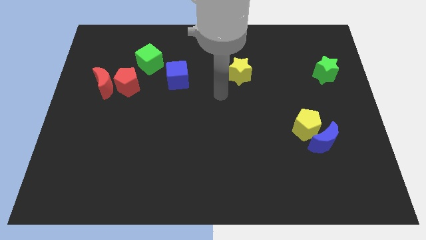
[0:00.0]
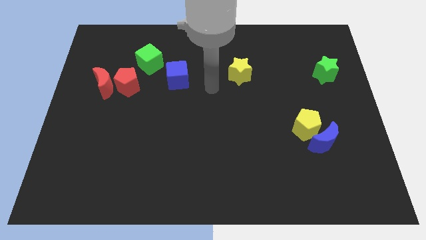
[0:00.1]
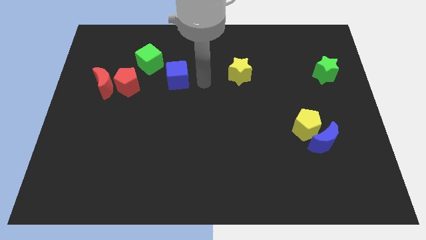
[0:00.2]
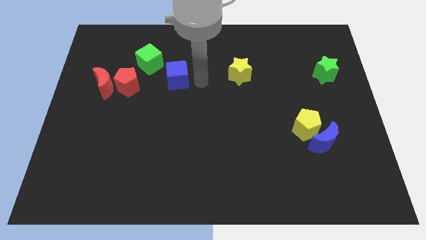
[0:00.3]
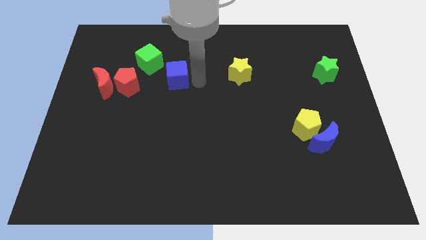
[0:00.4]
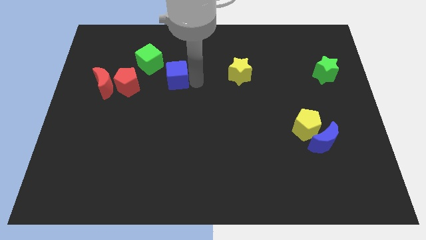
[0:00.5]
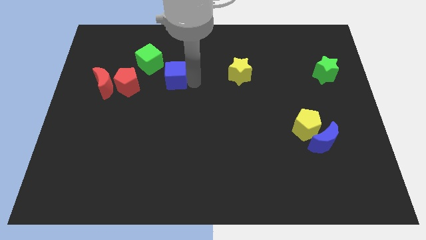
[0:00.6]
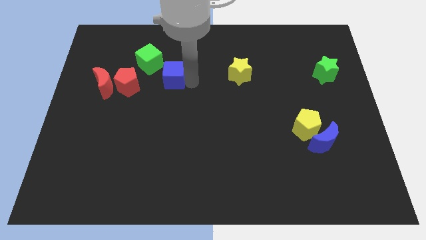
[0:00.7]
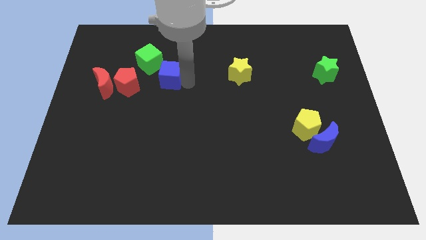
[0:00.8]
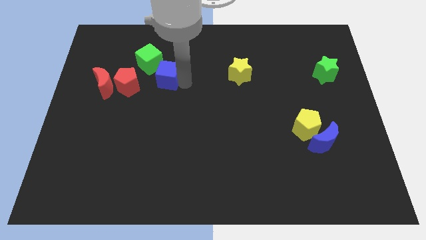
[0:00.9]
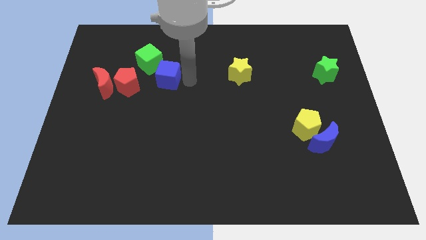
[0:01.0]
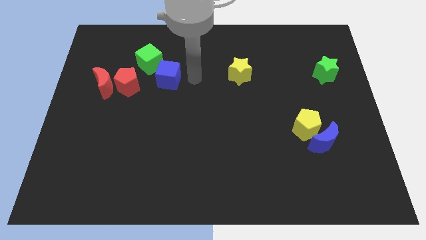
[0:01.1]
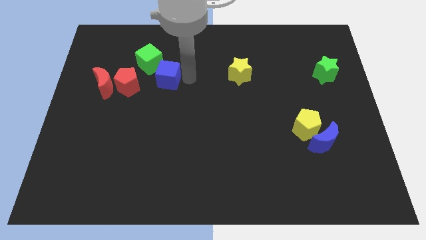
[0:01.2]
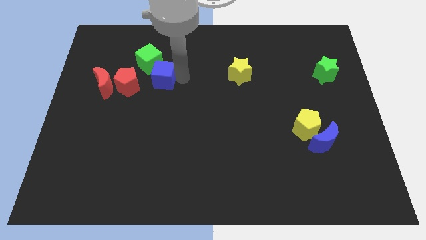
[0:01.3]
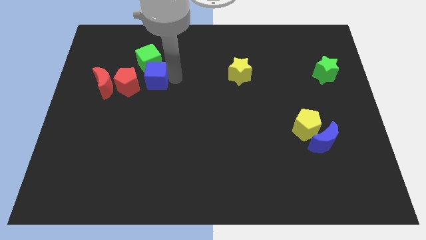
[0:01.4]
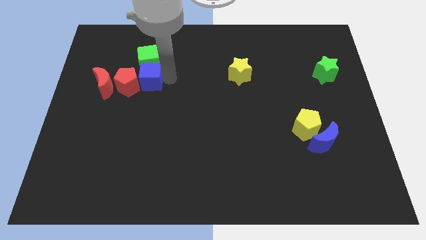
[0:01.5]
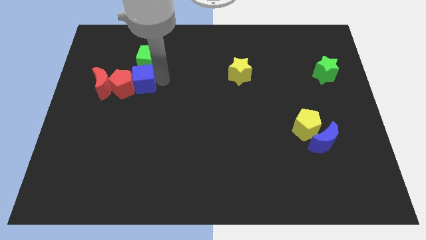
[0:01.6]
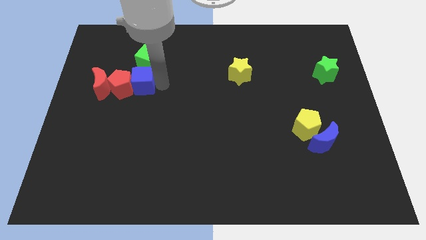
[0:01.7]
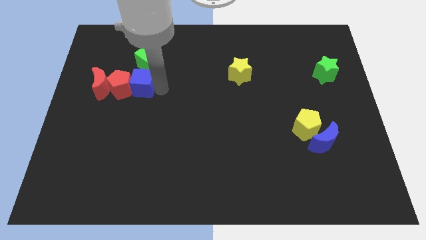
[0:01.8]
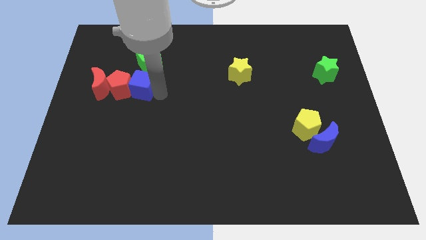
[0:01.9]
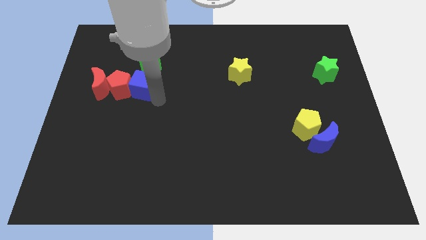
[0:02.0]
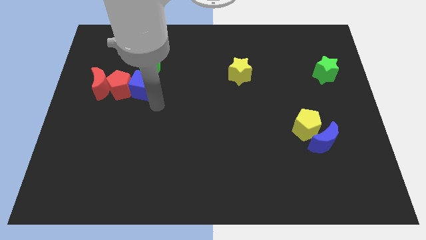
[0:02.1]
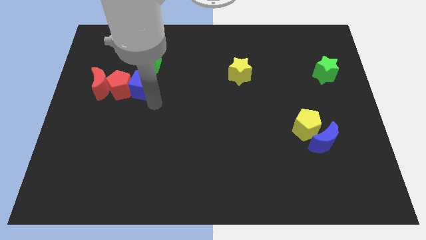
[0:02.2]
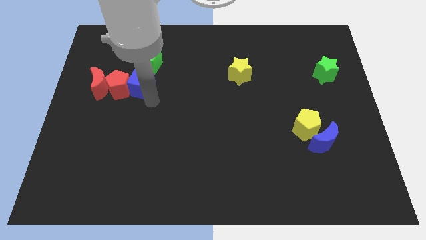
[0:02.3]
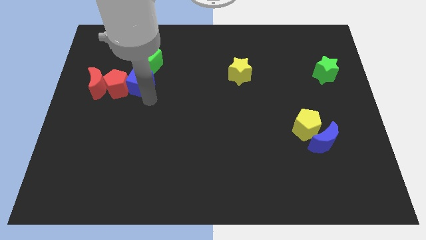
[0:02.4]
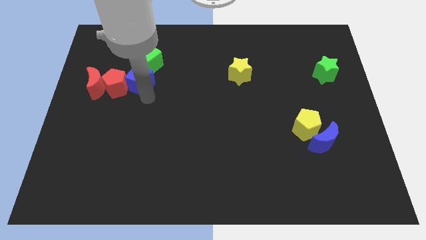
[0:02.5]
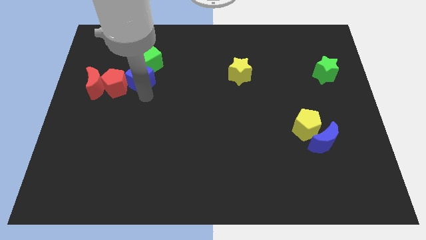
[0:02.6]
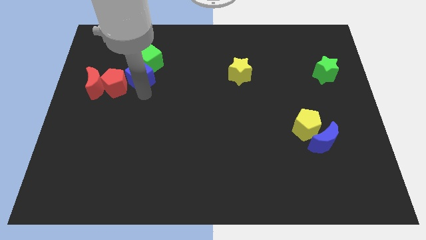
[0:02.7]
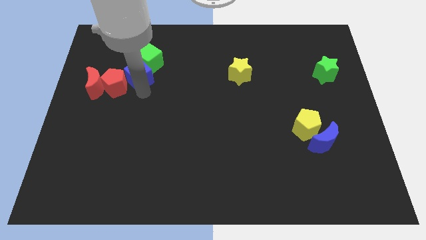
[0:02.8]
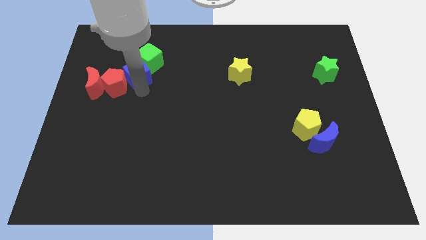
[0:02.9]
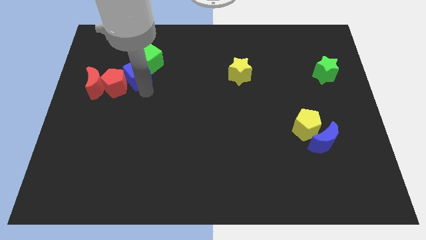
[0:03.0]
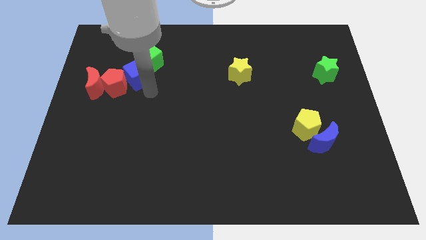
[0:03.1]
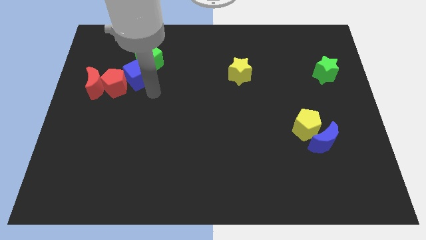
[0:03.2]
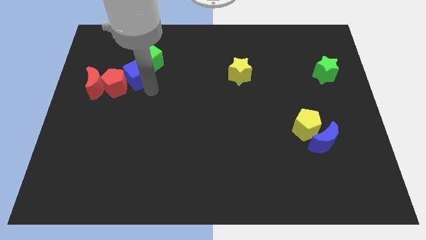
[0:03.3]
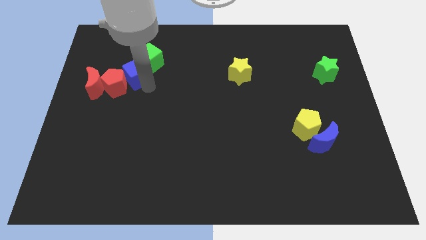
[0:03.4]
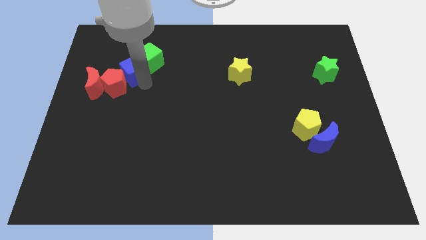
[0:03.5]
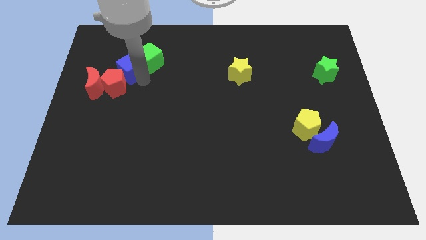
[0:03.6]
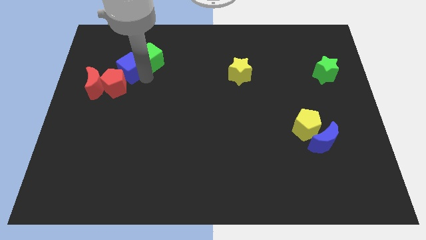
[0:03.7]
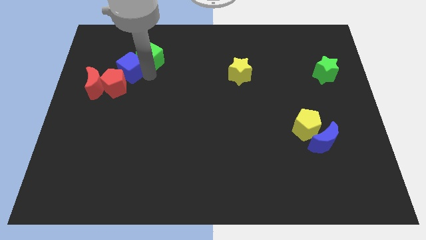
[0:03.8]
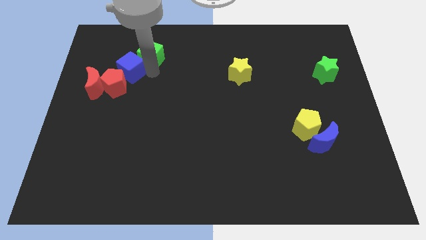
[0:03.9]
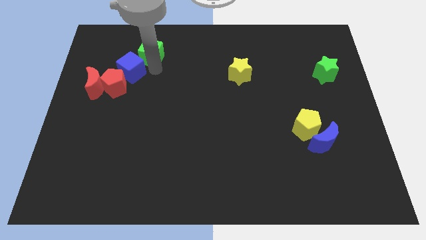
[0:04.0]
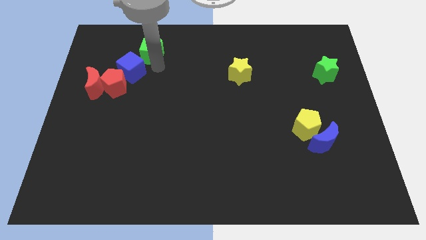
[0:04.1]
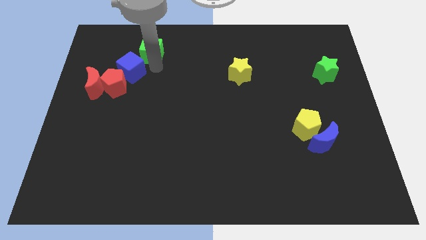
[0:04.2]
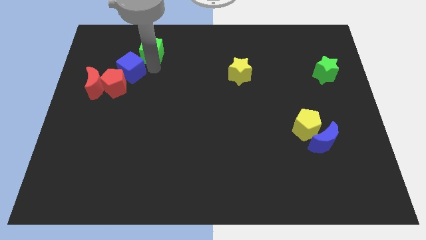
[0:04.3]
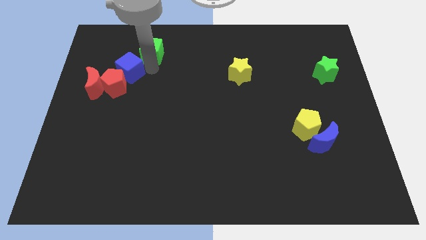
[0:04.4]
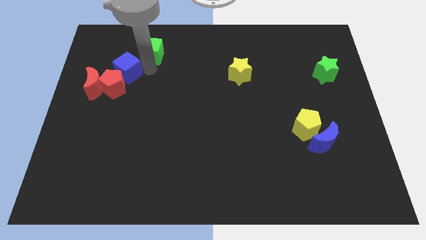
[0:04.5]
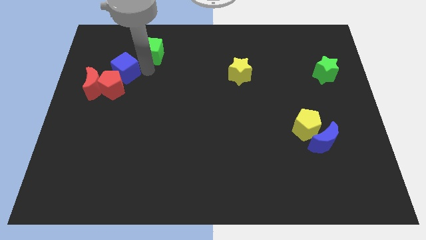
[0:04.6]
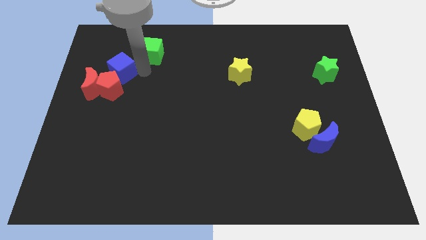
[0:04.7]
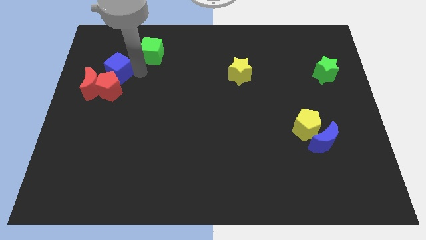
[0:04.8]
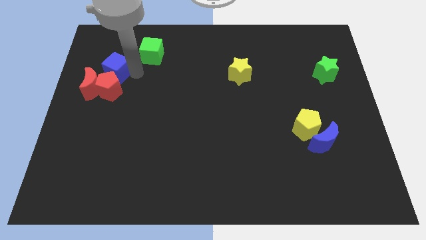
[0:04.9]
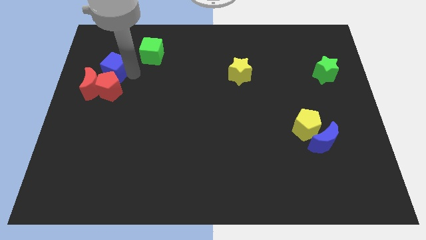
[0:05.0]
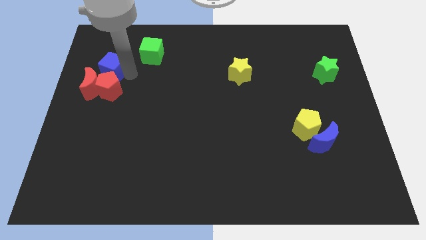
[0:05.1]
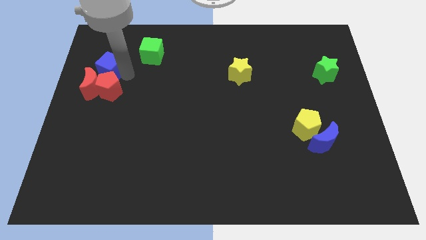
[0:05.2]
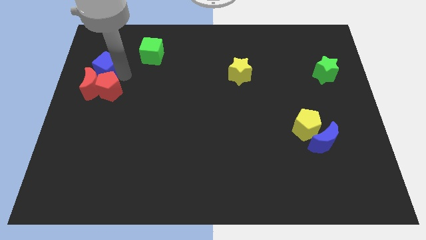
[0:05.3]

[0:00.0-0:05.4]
push the blue cube close to the red moon

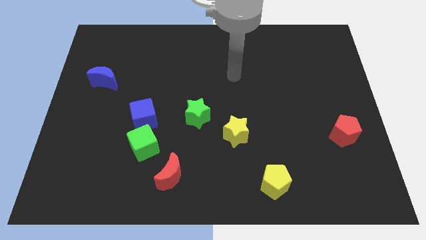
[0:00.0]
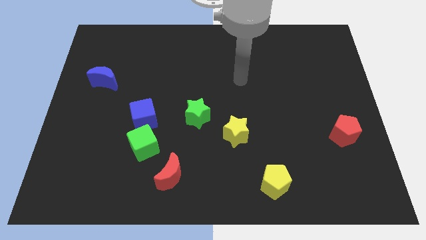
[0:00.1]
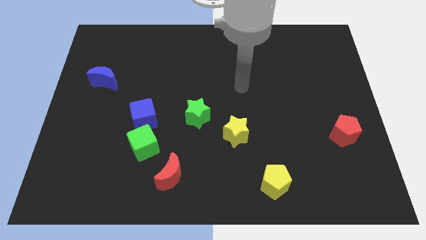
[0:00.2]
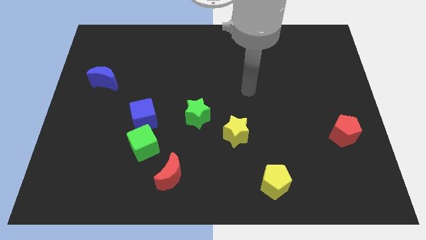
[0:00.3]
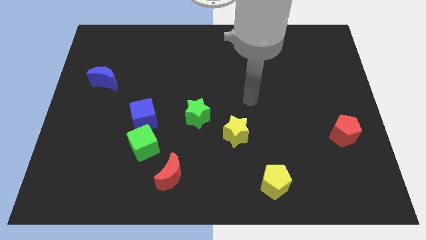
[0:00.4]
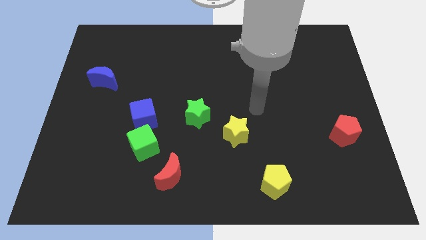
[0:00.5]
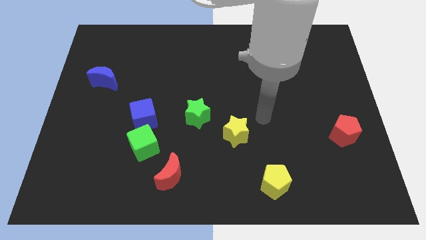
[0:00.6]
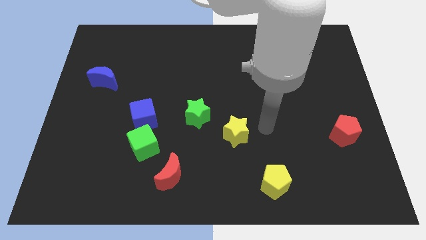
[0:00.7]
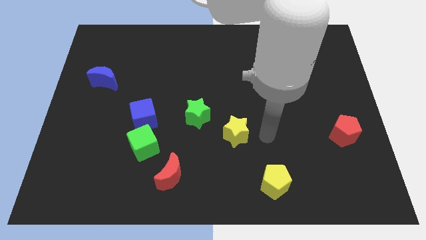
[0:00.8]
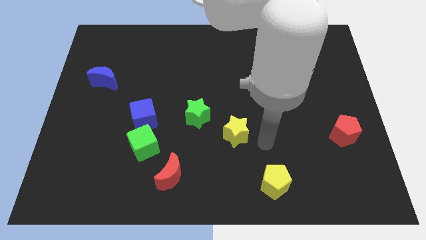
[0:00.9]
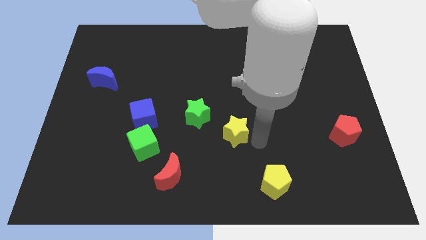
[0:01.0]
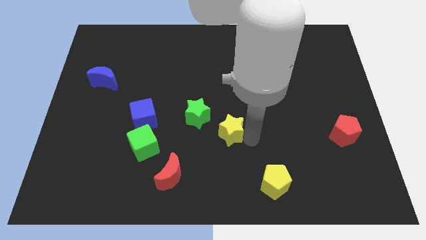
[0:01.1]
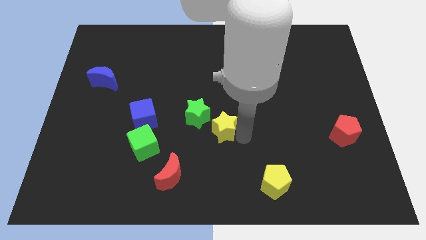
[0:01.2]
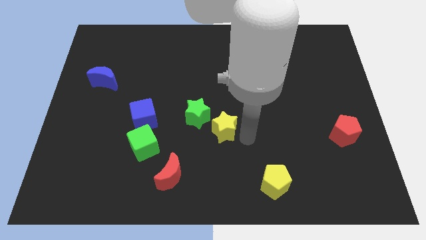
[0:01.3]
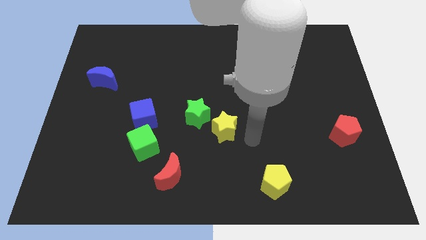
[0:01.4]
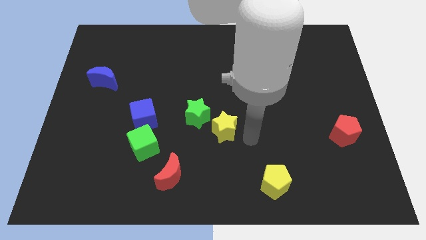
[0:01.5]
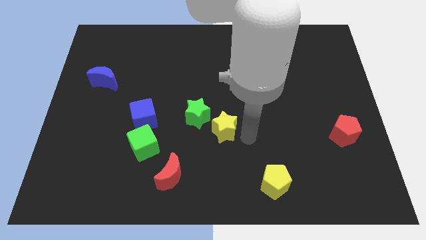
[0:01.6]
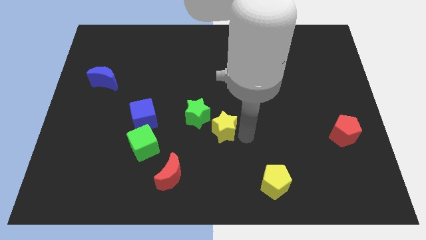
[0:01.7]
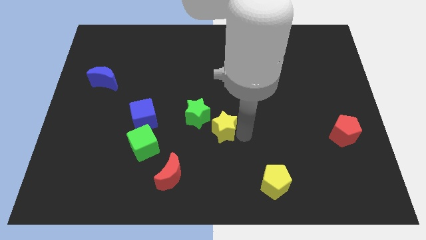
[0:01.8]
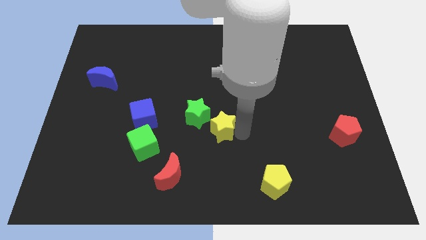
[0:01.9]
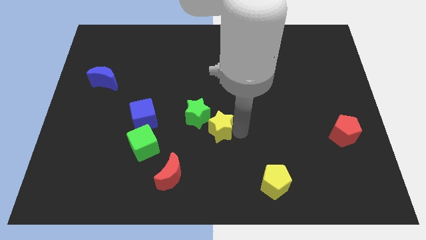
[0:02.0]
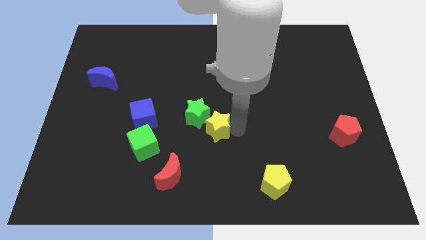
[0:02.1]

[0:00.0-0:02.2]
push the yellow star towards the green star

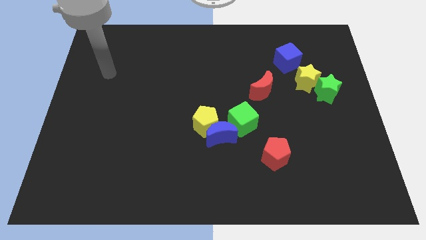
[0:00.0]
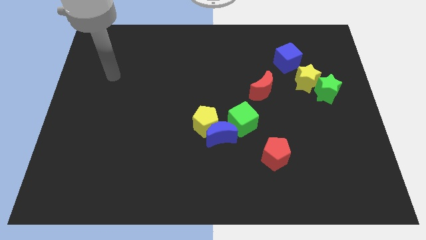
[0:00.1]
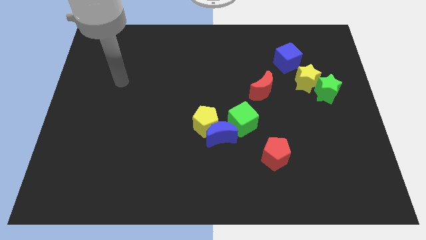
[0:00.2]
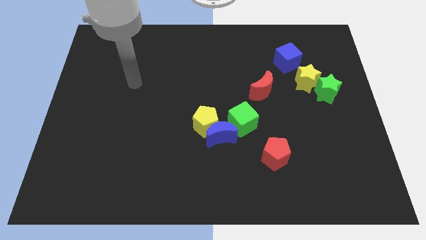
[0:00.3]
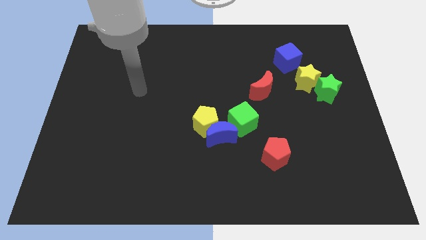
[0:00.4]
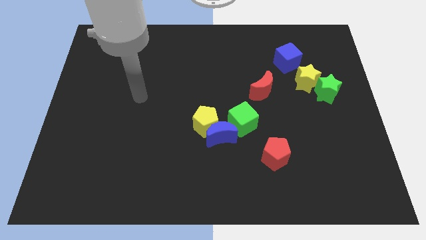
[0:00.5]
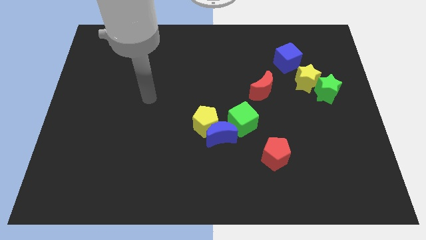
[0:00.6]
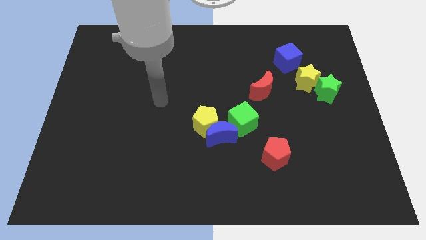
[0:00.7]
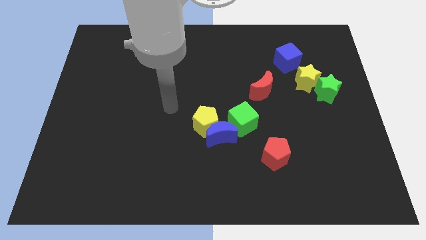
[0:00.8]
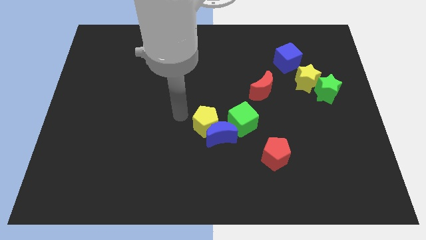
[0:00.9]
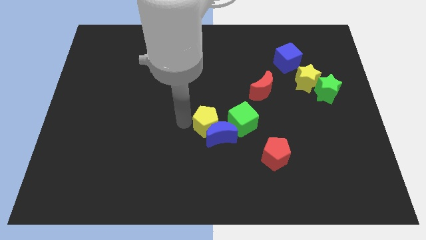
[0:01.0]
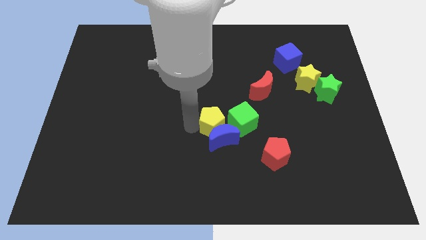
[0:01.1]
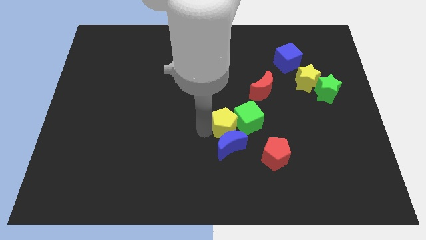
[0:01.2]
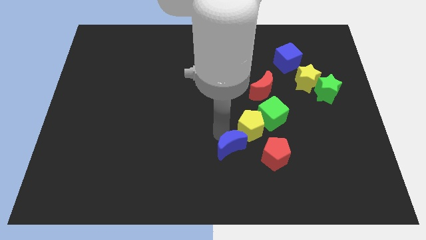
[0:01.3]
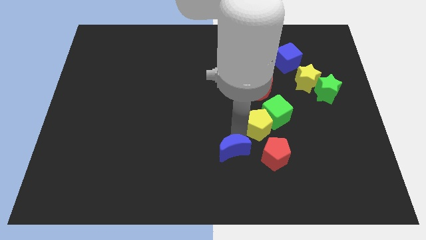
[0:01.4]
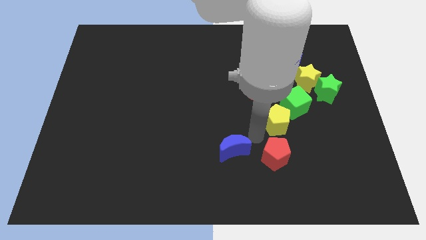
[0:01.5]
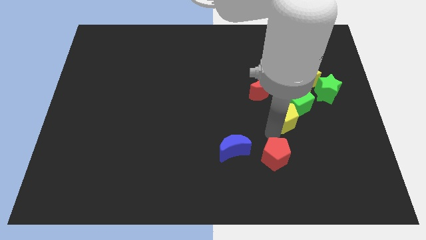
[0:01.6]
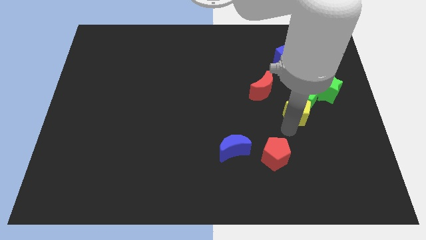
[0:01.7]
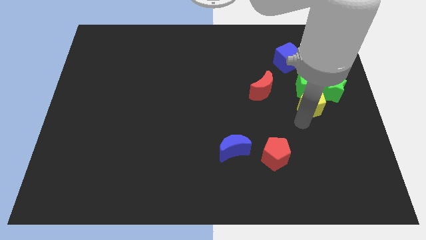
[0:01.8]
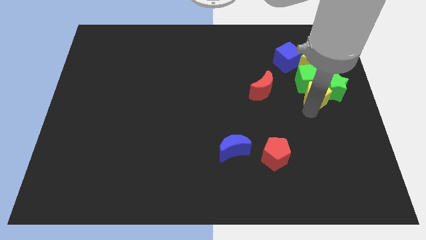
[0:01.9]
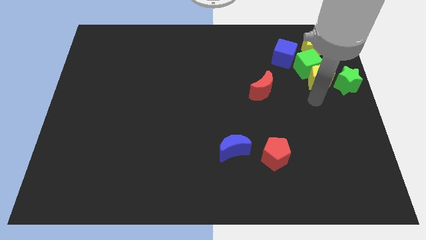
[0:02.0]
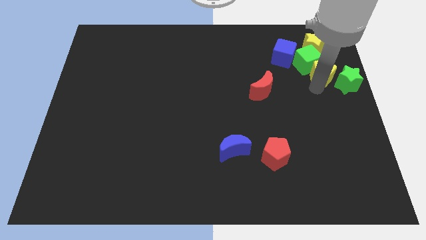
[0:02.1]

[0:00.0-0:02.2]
slide the green cube towards the blue cube
